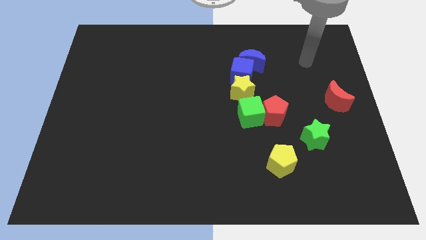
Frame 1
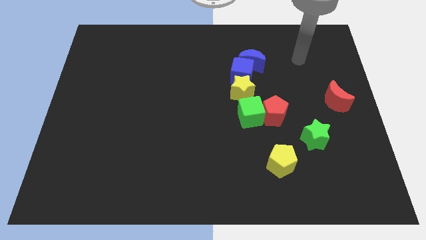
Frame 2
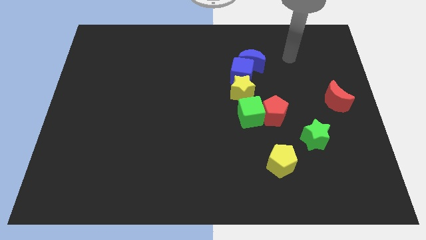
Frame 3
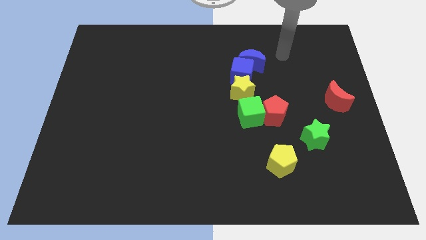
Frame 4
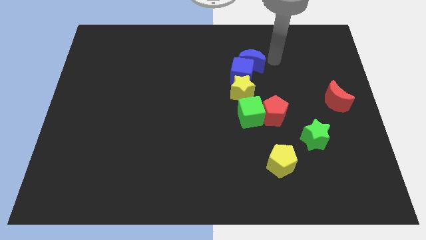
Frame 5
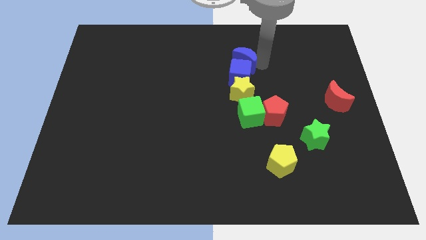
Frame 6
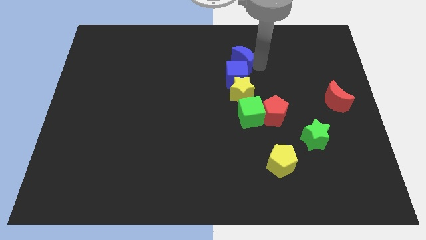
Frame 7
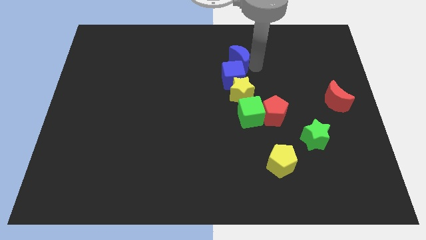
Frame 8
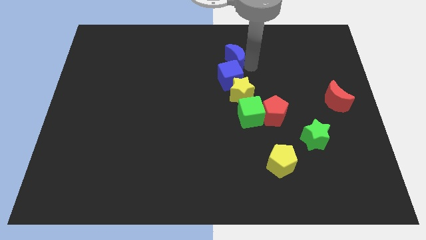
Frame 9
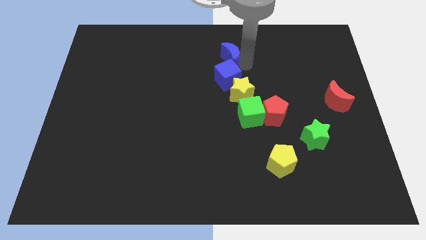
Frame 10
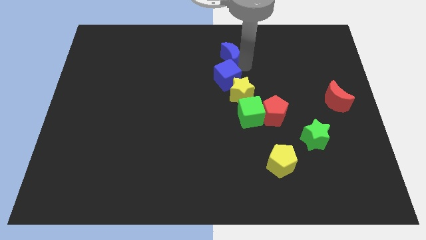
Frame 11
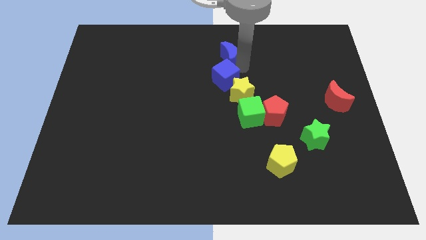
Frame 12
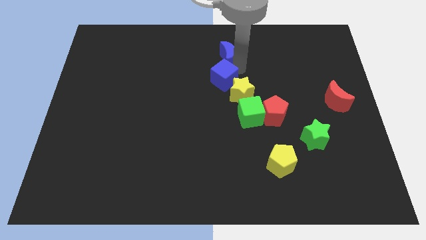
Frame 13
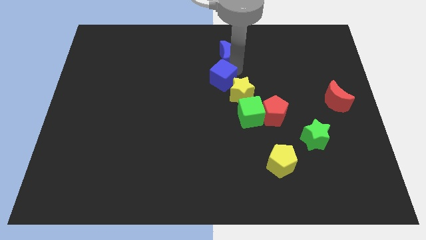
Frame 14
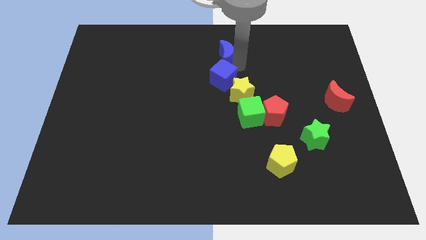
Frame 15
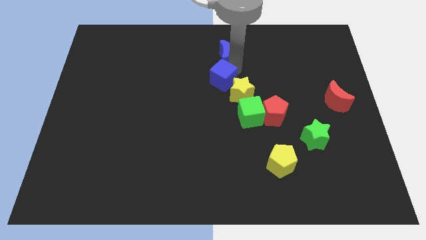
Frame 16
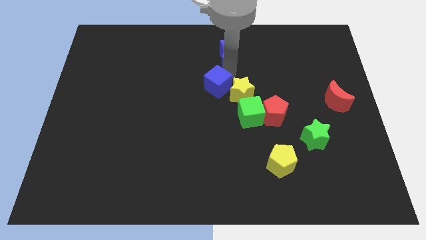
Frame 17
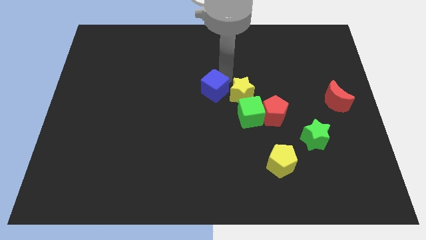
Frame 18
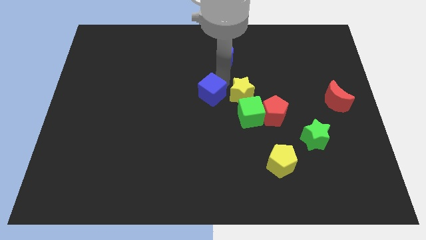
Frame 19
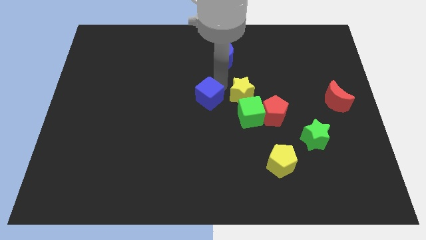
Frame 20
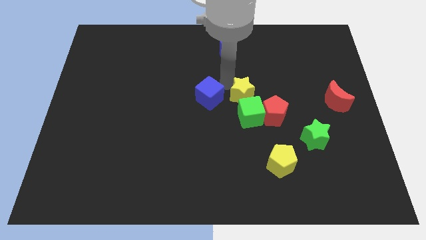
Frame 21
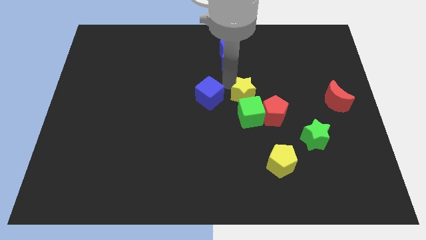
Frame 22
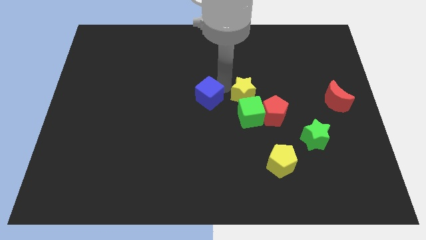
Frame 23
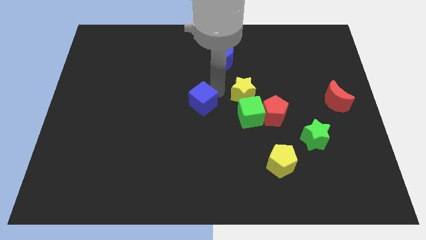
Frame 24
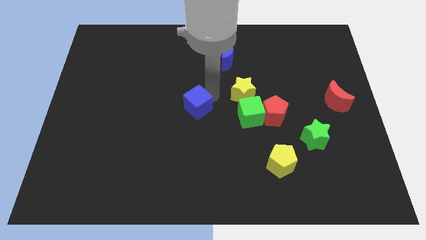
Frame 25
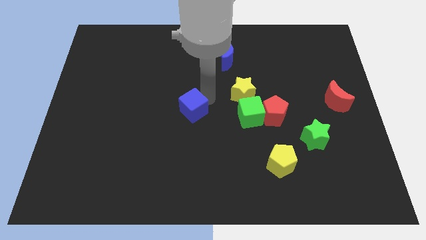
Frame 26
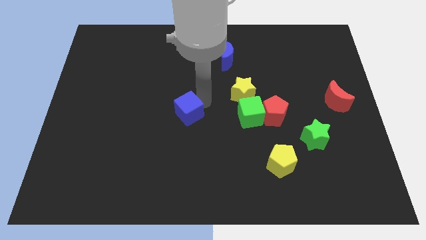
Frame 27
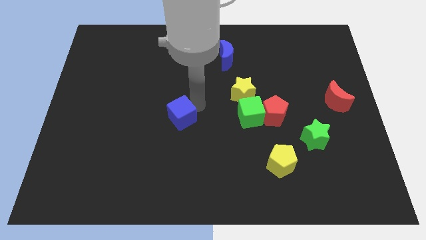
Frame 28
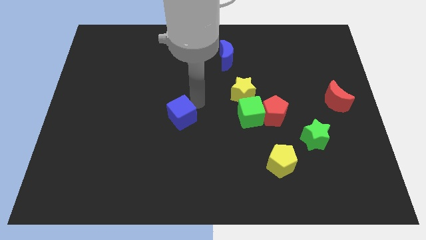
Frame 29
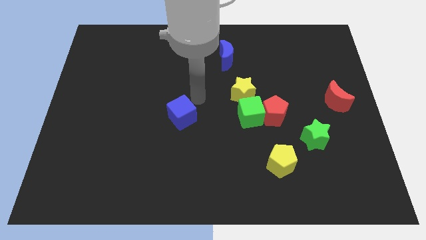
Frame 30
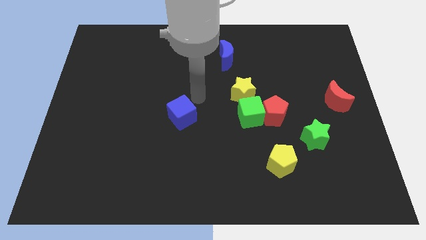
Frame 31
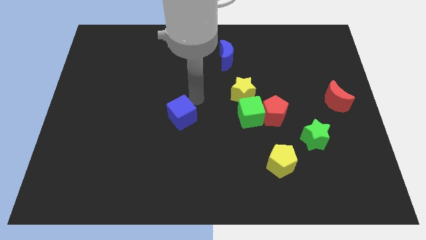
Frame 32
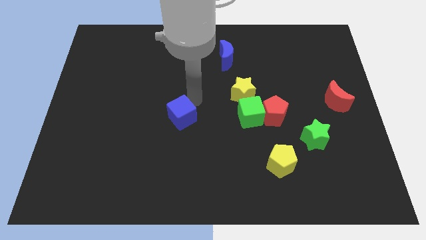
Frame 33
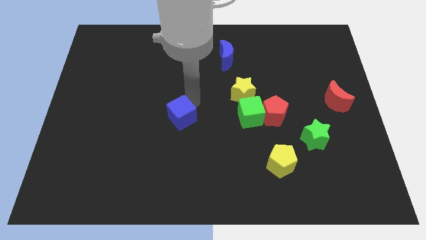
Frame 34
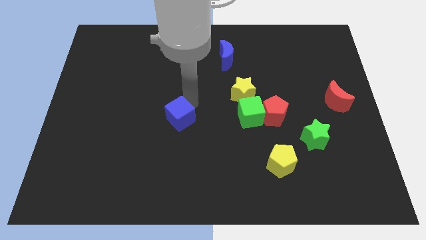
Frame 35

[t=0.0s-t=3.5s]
slide the blue cube diagonally downwards and left

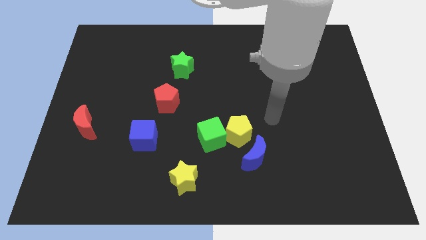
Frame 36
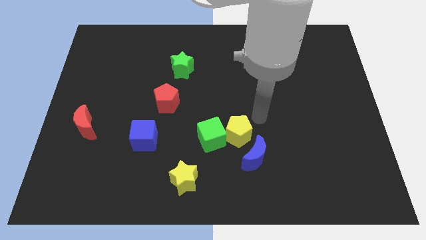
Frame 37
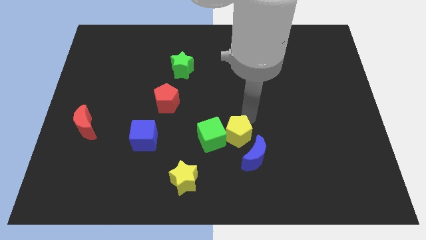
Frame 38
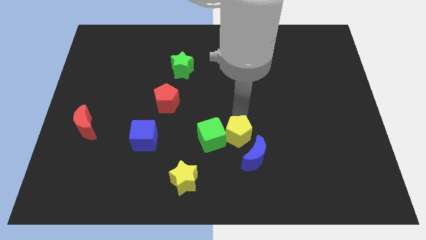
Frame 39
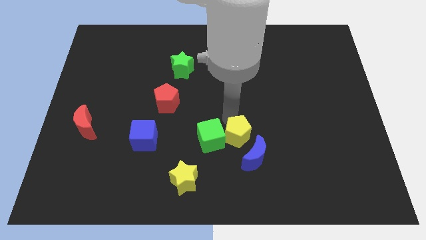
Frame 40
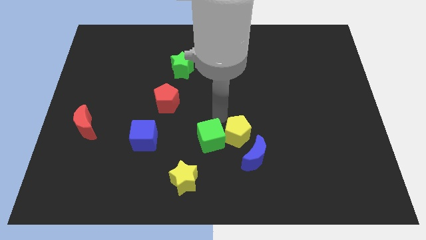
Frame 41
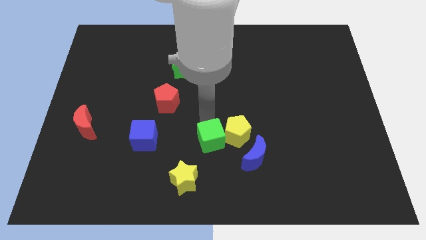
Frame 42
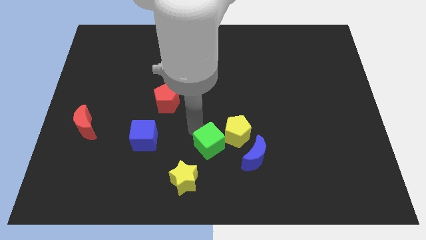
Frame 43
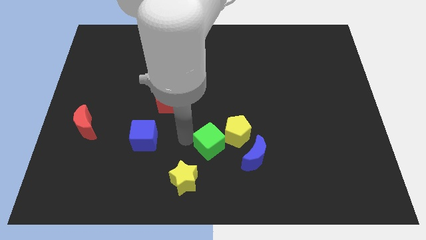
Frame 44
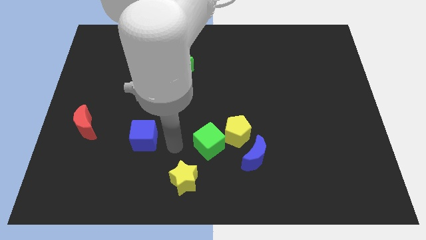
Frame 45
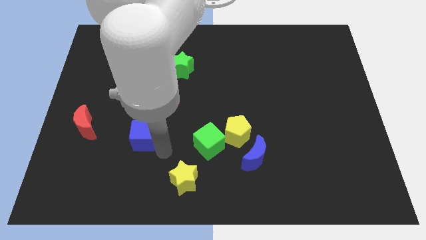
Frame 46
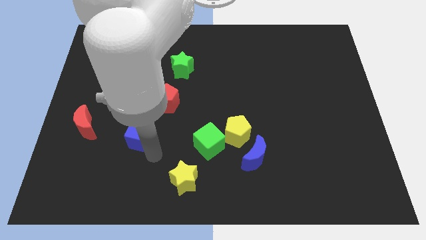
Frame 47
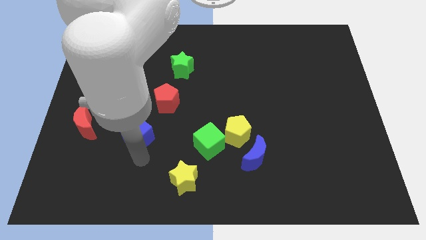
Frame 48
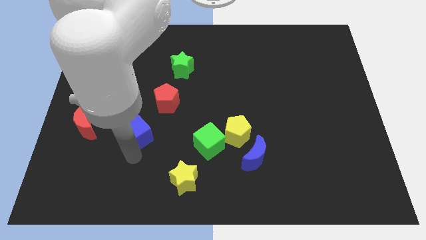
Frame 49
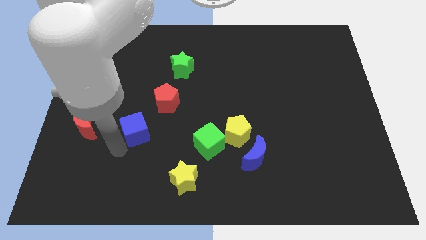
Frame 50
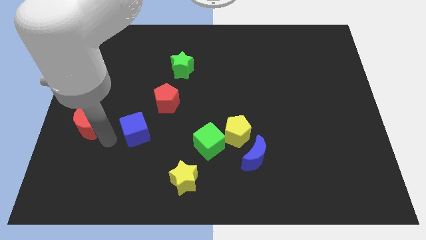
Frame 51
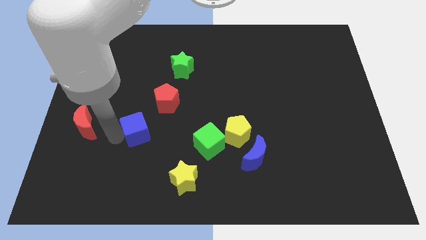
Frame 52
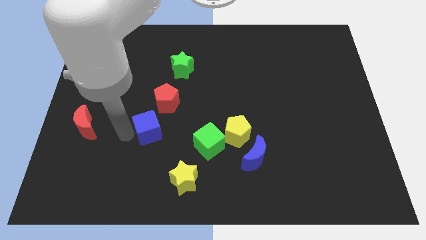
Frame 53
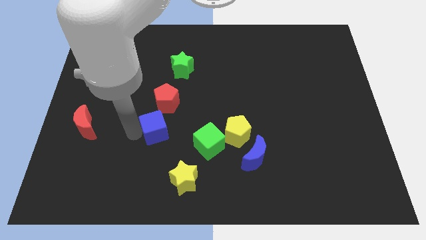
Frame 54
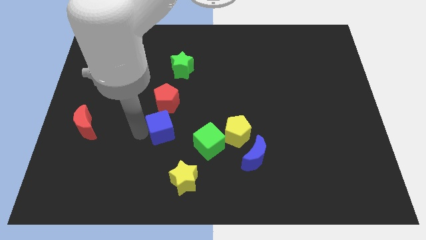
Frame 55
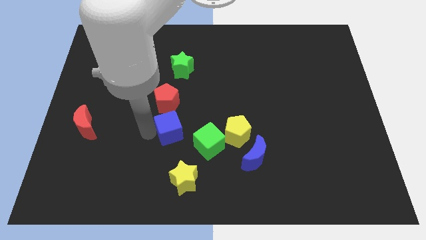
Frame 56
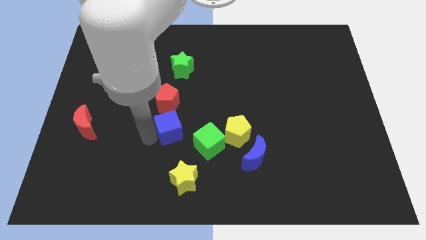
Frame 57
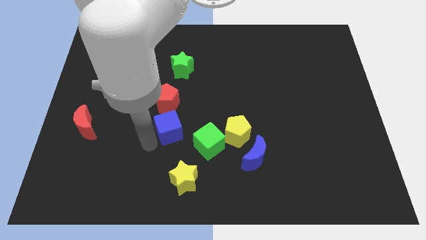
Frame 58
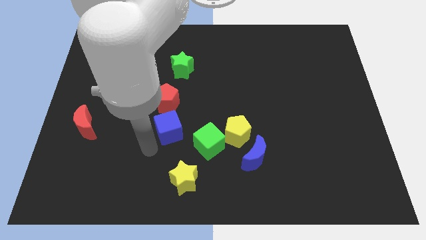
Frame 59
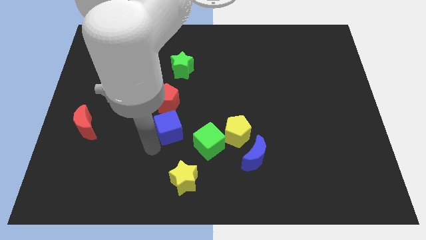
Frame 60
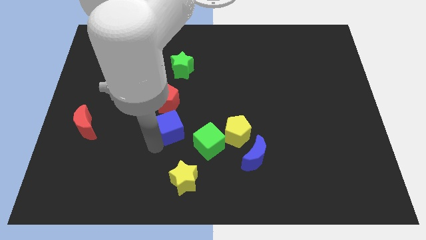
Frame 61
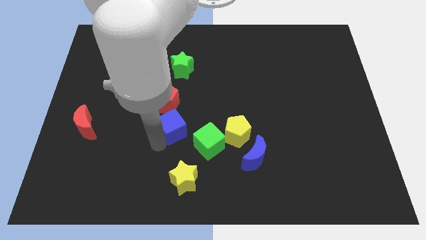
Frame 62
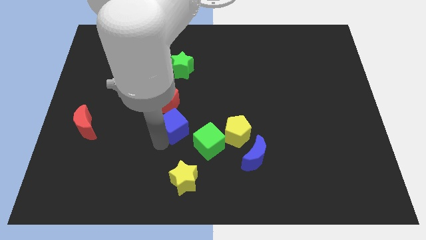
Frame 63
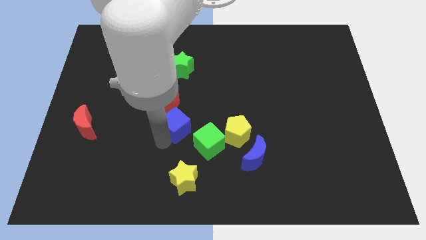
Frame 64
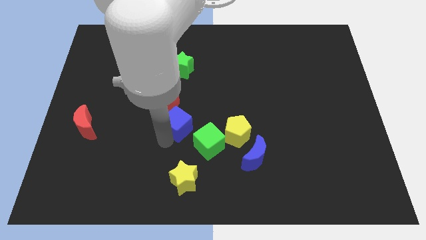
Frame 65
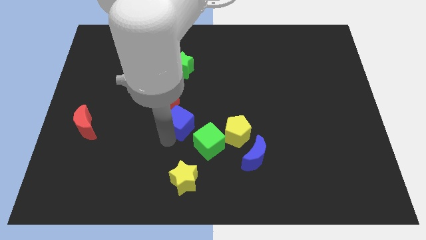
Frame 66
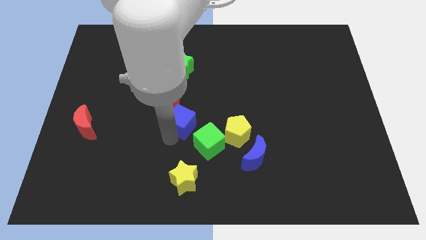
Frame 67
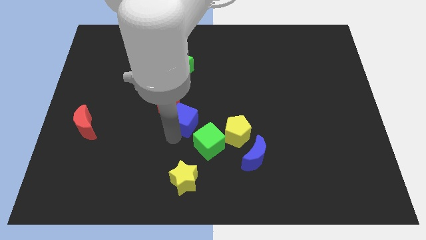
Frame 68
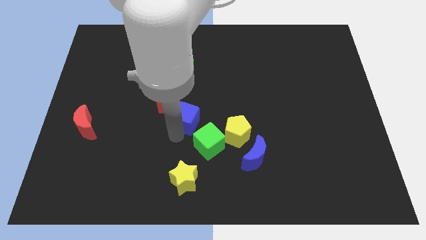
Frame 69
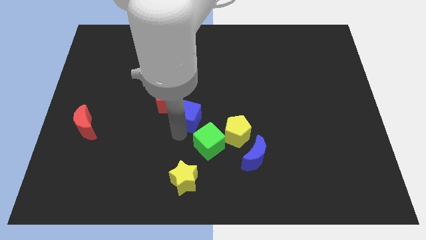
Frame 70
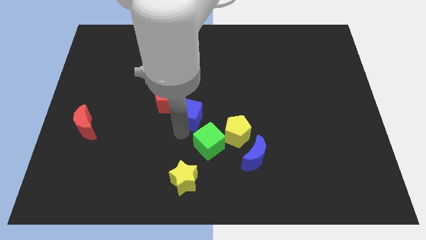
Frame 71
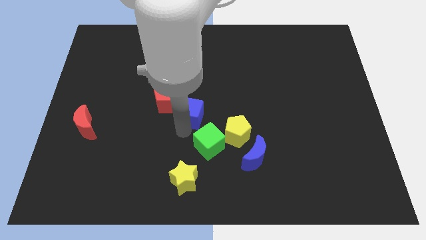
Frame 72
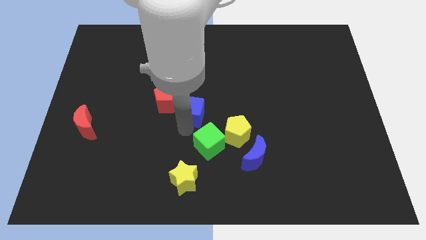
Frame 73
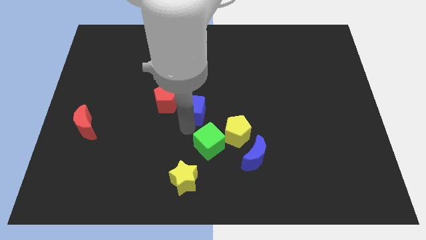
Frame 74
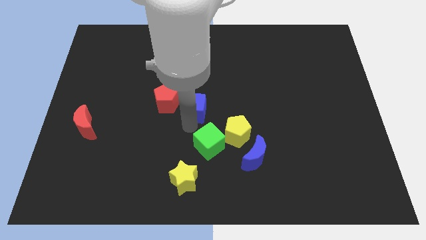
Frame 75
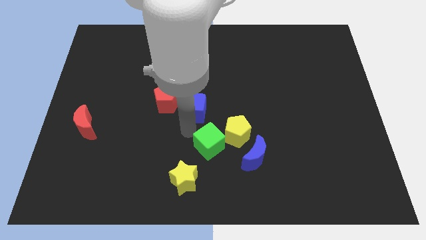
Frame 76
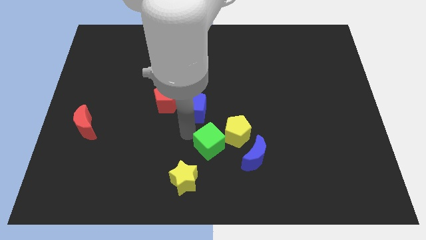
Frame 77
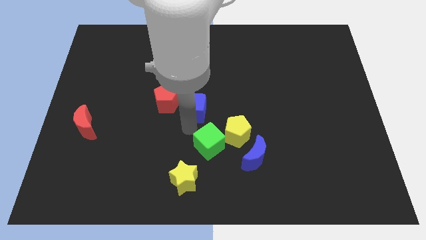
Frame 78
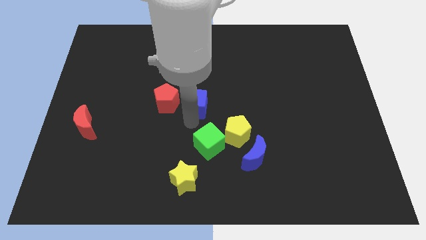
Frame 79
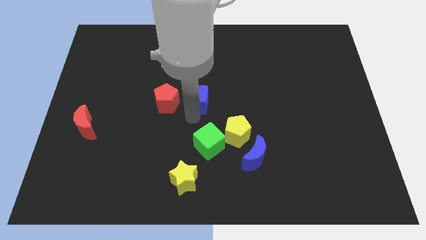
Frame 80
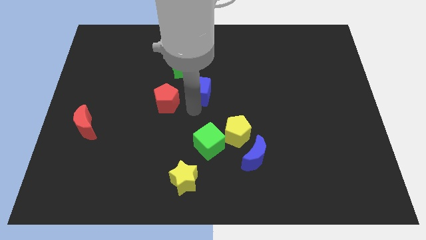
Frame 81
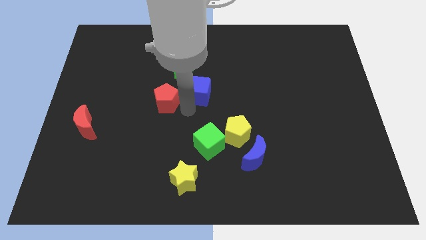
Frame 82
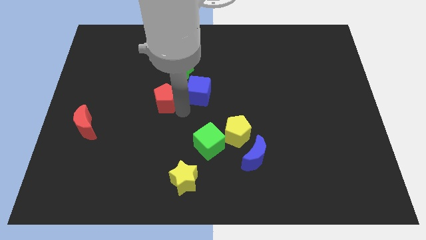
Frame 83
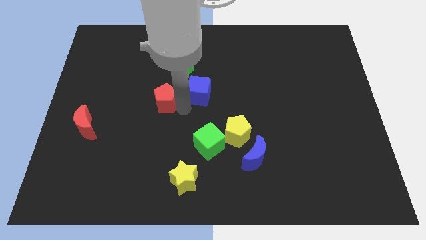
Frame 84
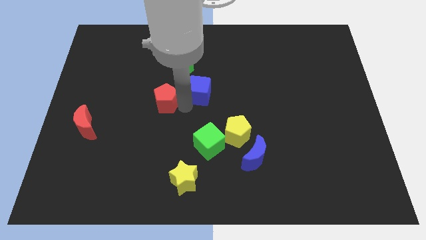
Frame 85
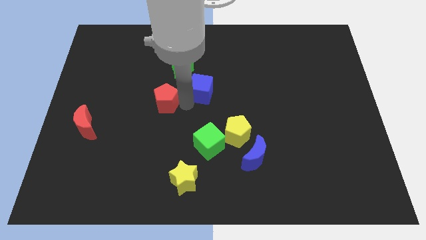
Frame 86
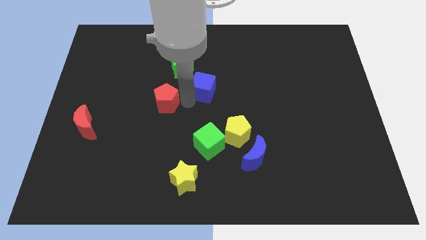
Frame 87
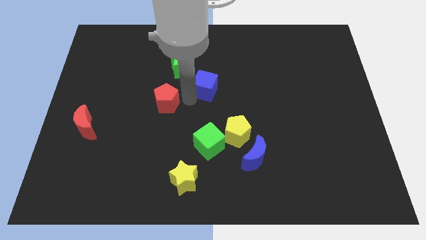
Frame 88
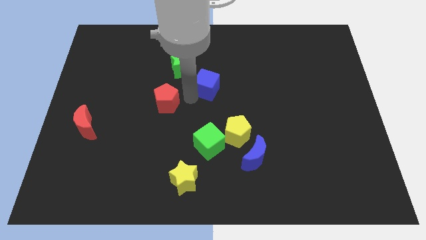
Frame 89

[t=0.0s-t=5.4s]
slide the blue cube up and then right
